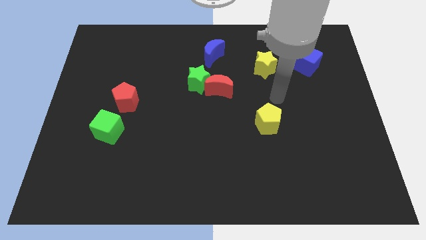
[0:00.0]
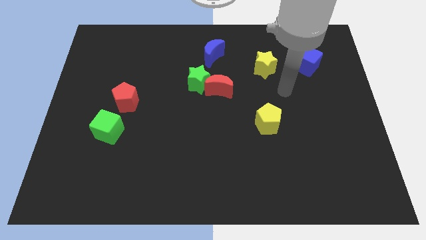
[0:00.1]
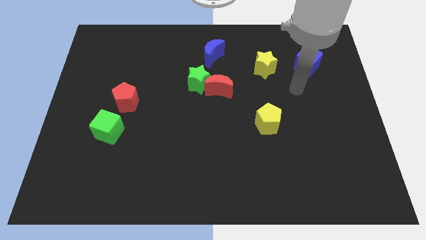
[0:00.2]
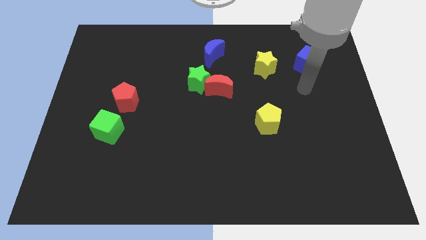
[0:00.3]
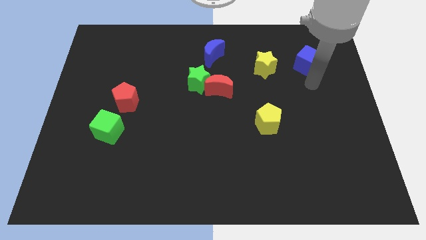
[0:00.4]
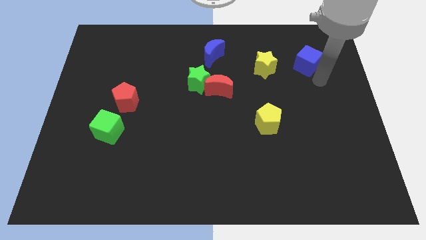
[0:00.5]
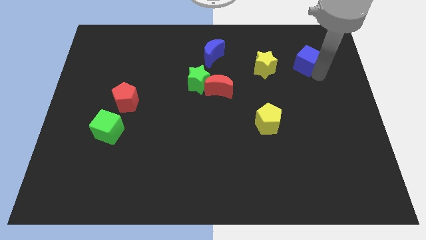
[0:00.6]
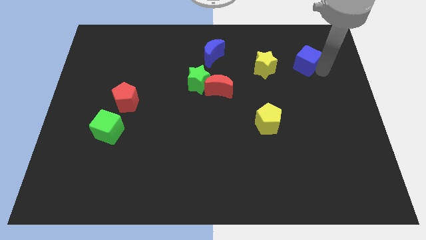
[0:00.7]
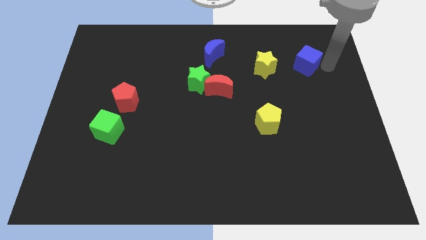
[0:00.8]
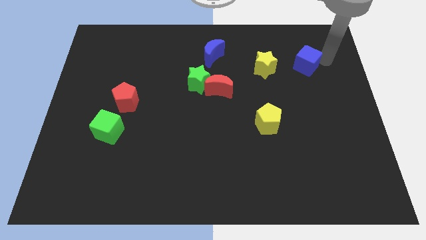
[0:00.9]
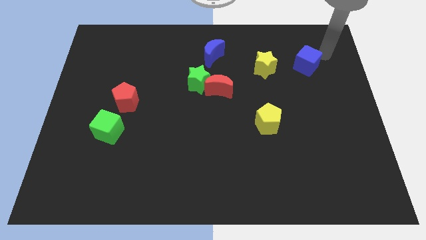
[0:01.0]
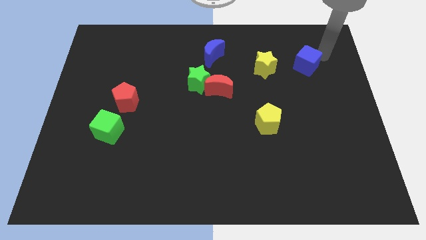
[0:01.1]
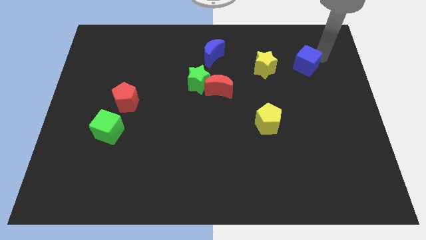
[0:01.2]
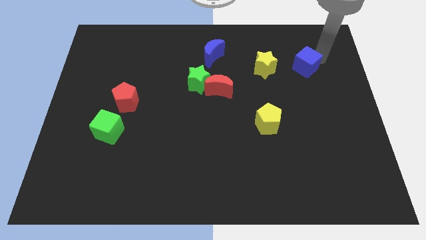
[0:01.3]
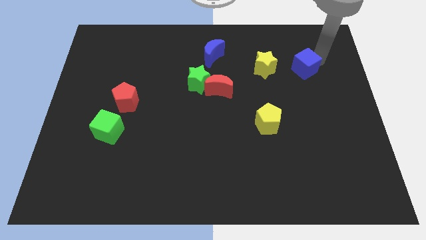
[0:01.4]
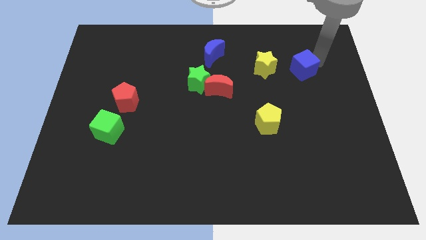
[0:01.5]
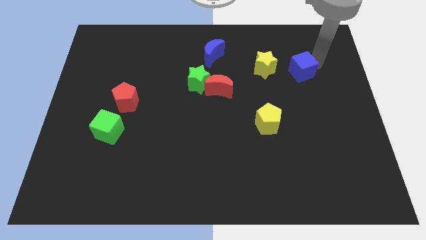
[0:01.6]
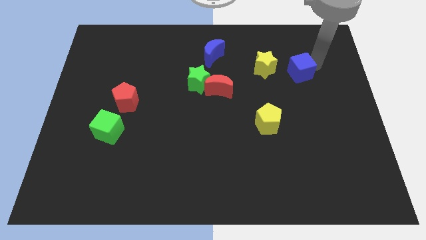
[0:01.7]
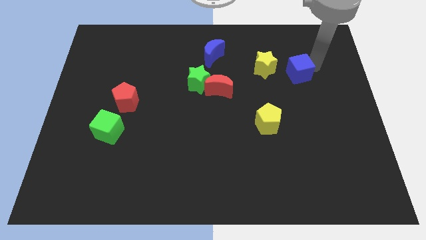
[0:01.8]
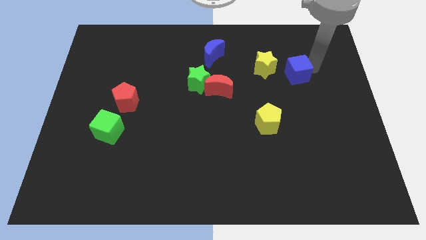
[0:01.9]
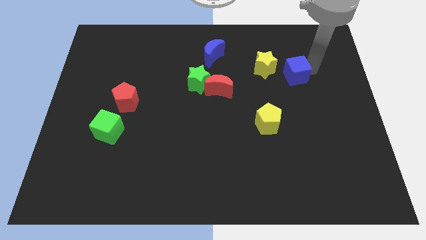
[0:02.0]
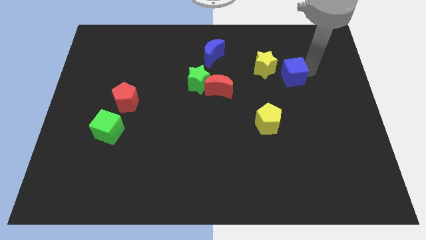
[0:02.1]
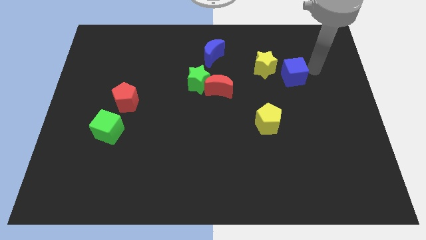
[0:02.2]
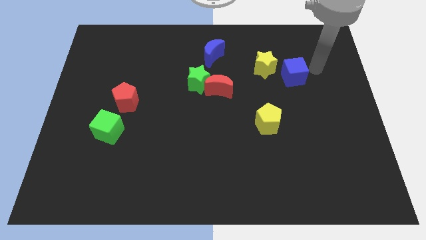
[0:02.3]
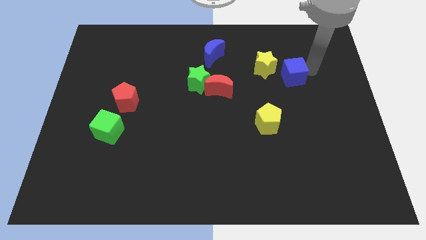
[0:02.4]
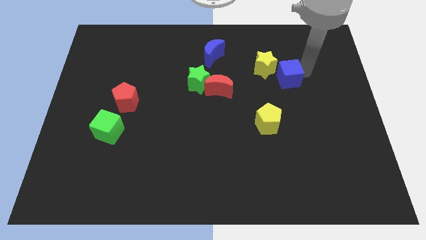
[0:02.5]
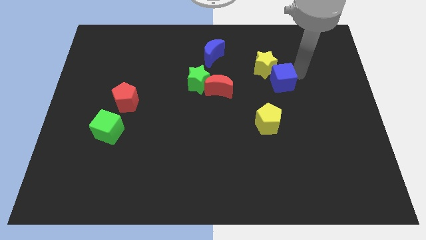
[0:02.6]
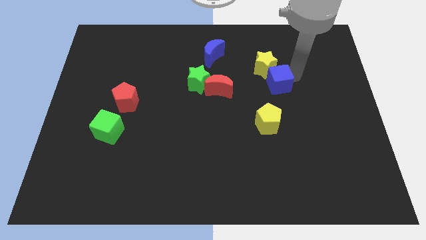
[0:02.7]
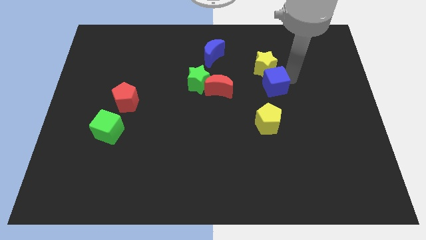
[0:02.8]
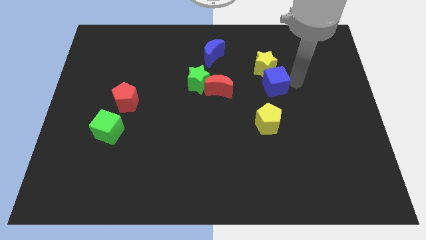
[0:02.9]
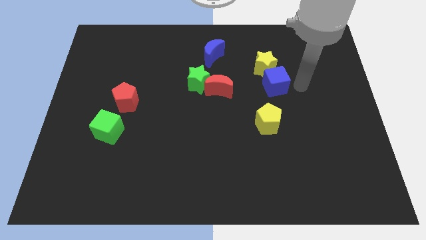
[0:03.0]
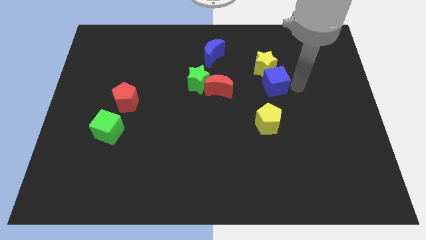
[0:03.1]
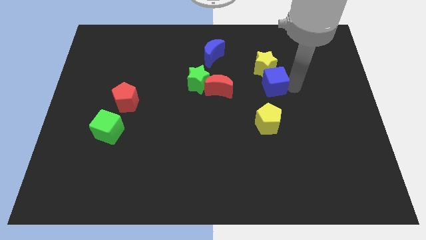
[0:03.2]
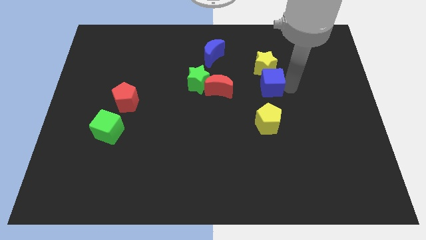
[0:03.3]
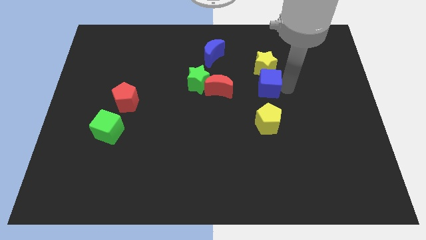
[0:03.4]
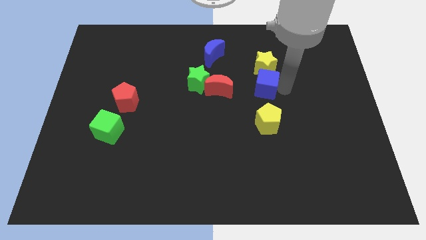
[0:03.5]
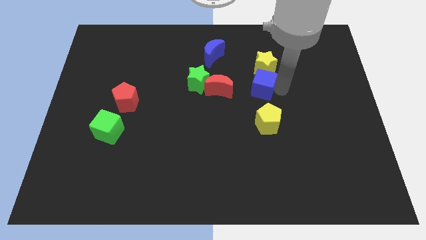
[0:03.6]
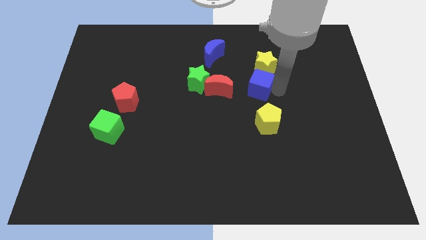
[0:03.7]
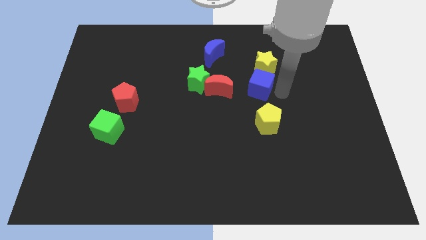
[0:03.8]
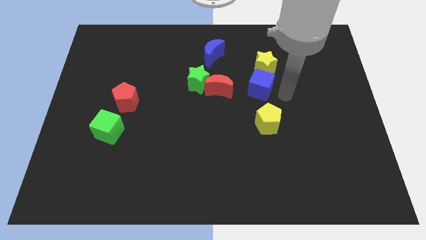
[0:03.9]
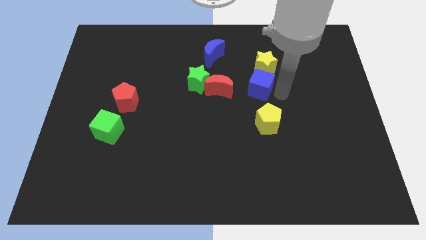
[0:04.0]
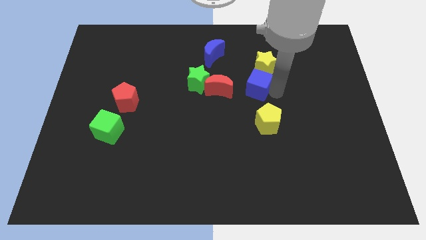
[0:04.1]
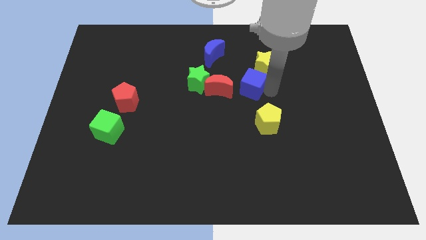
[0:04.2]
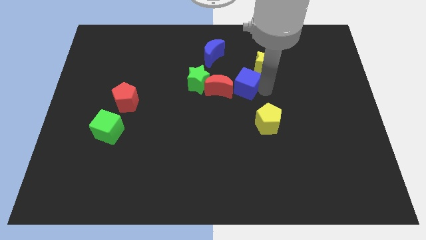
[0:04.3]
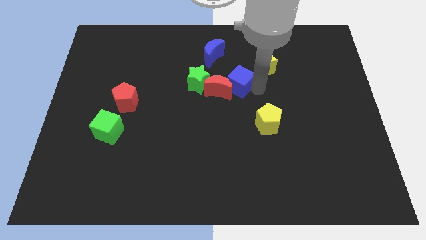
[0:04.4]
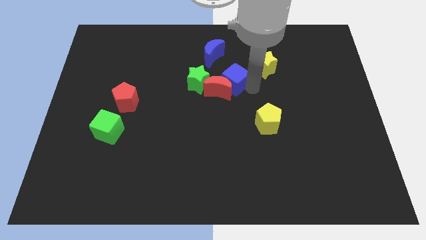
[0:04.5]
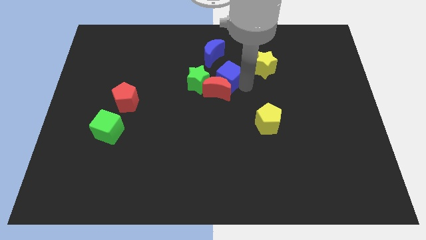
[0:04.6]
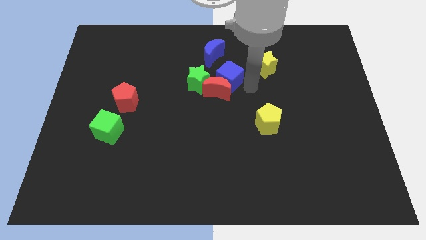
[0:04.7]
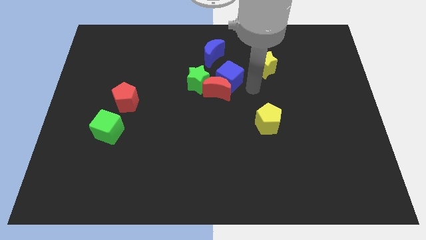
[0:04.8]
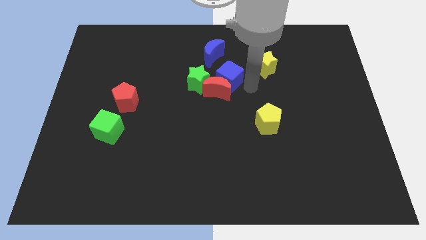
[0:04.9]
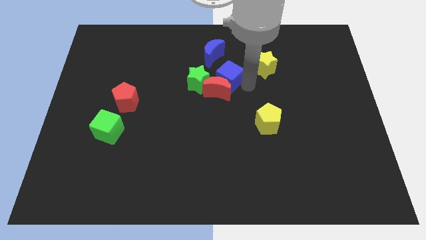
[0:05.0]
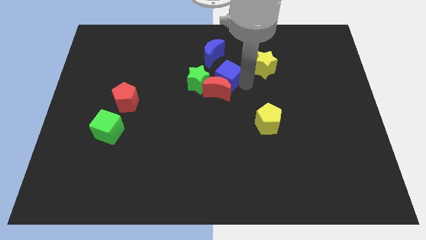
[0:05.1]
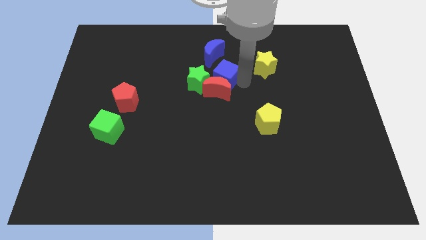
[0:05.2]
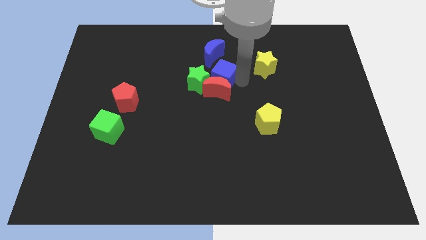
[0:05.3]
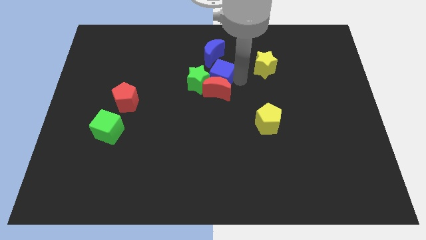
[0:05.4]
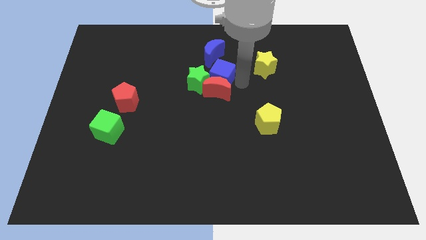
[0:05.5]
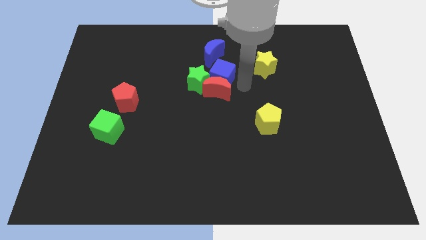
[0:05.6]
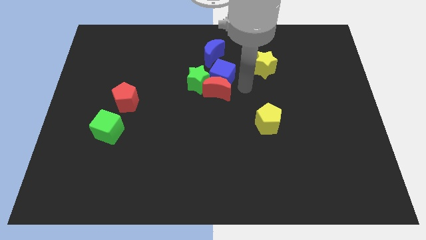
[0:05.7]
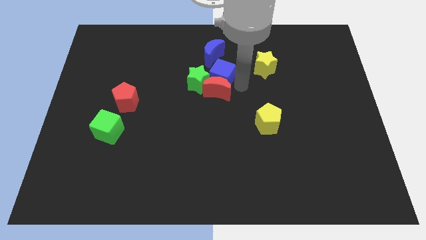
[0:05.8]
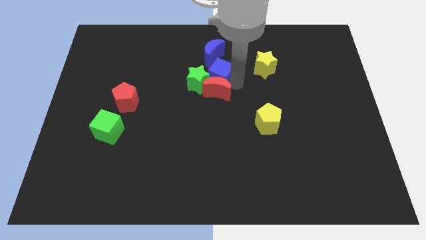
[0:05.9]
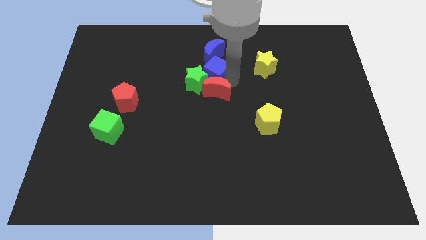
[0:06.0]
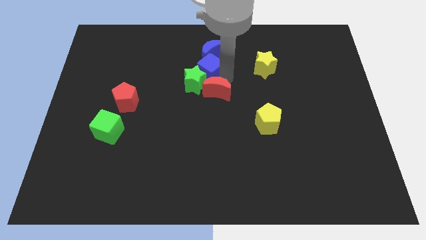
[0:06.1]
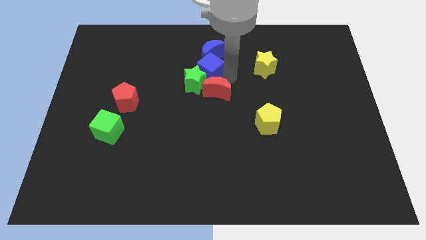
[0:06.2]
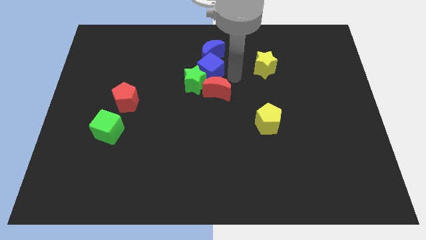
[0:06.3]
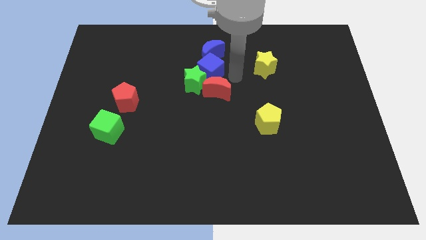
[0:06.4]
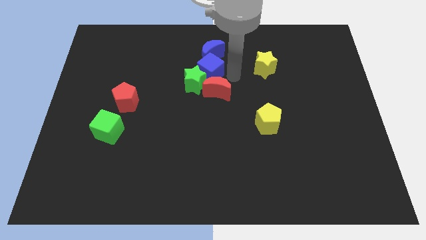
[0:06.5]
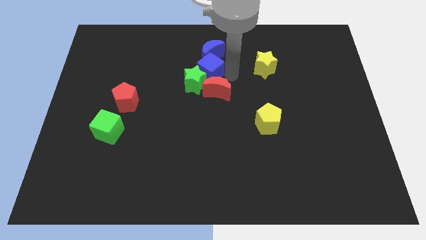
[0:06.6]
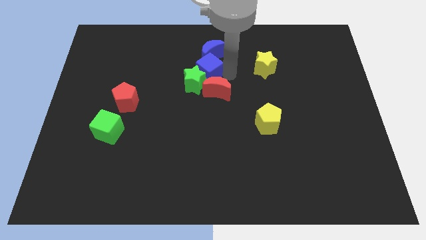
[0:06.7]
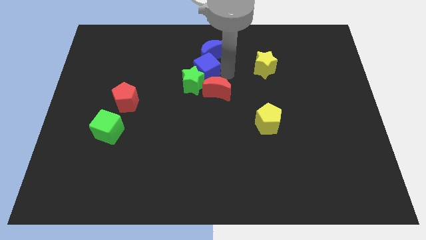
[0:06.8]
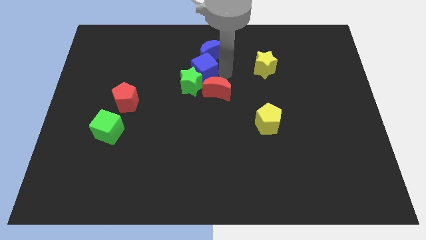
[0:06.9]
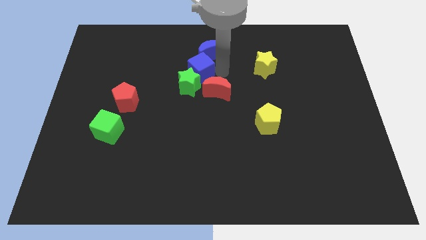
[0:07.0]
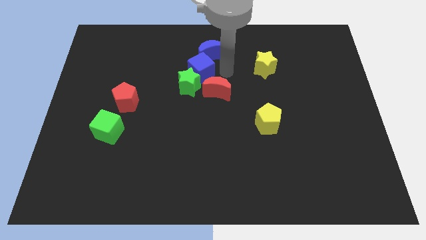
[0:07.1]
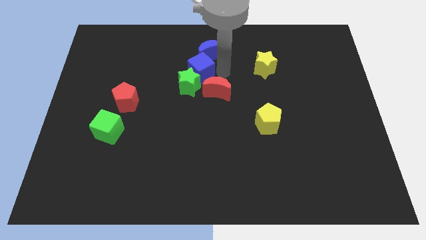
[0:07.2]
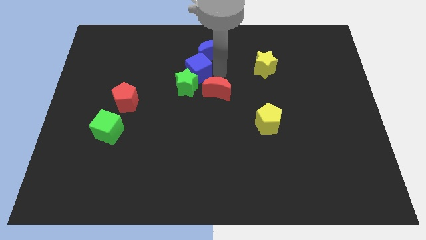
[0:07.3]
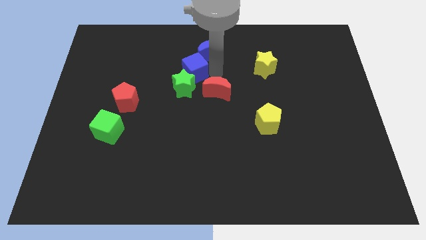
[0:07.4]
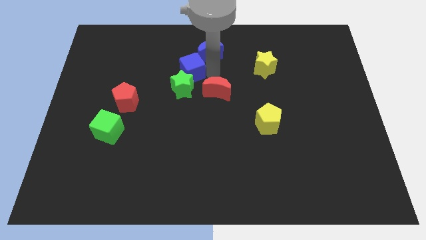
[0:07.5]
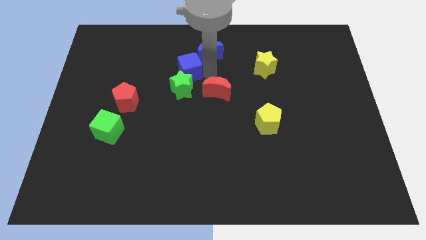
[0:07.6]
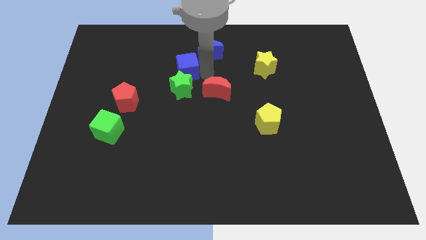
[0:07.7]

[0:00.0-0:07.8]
slide the blue cube to the top left side of the green star
